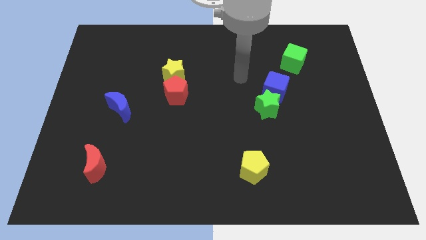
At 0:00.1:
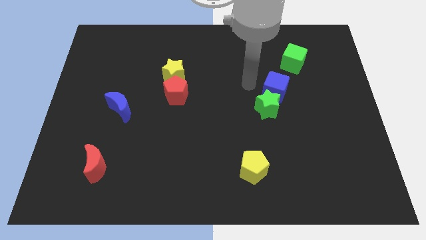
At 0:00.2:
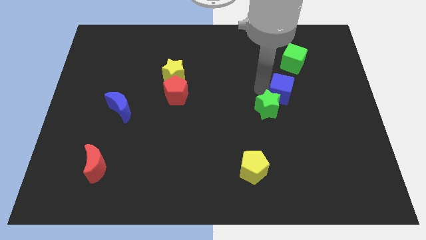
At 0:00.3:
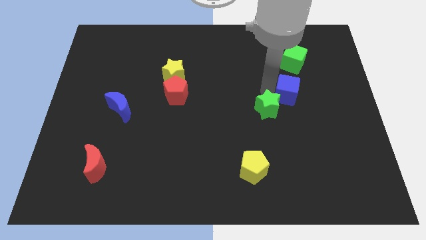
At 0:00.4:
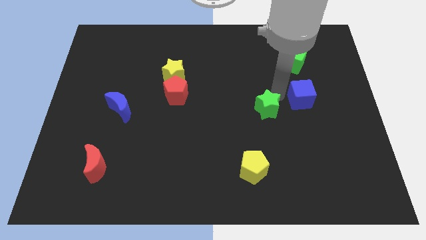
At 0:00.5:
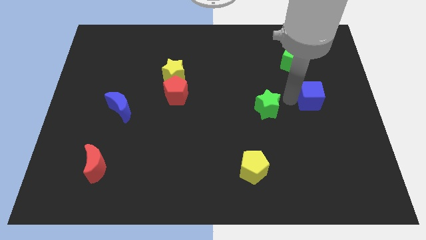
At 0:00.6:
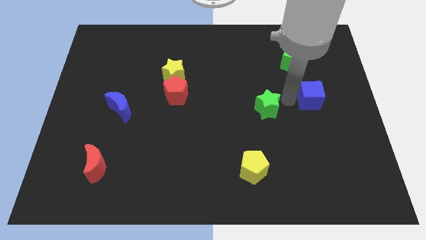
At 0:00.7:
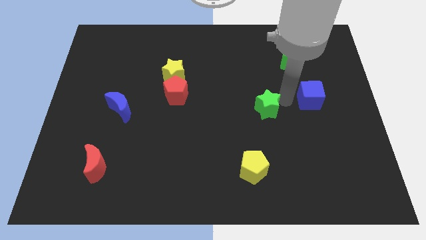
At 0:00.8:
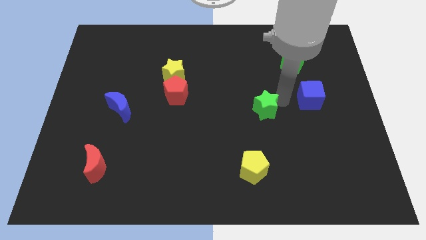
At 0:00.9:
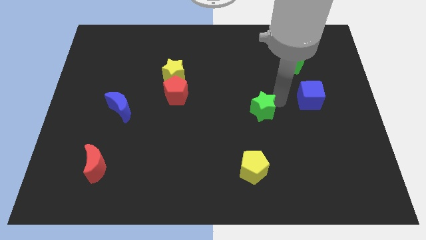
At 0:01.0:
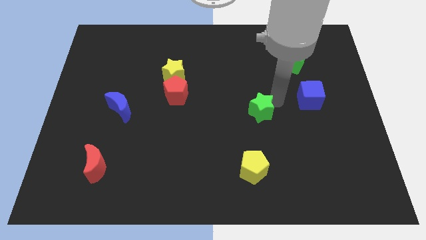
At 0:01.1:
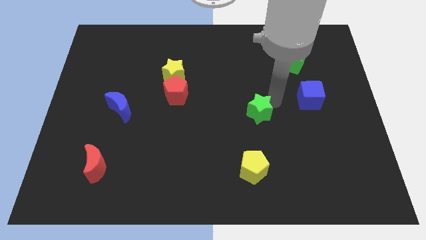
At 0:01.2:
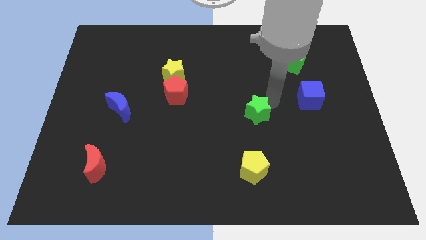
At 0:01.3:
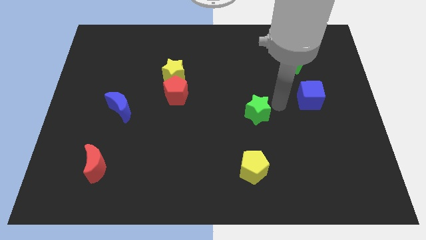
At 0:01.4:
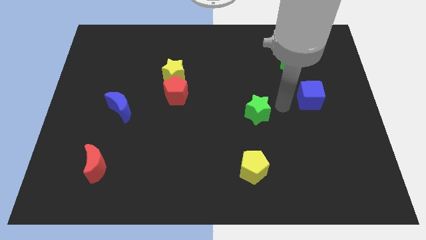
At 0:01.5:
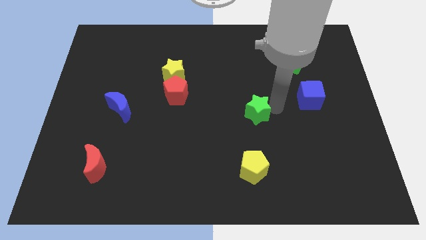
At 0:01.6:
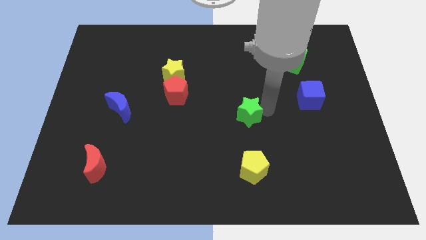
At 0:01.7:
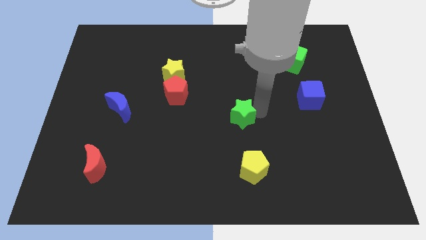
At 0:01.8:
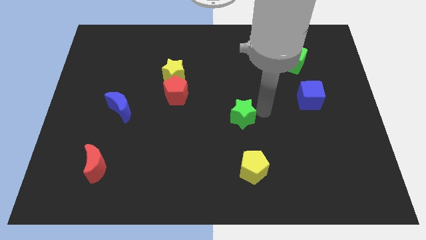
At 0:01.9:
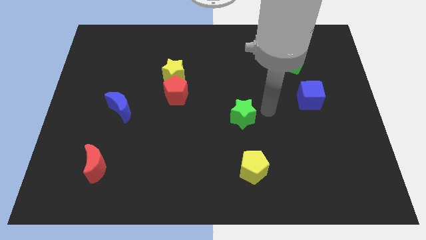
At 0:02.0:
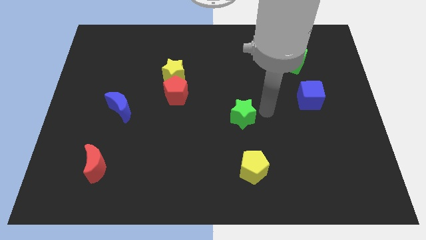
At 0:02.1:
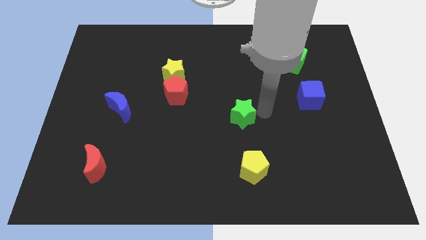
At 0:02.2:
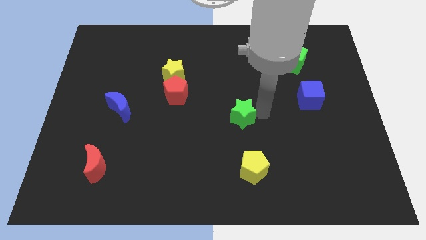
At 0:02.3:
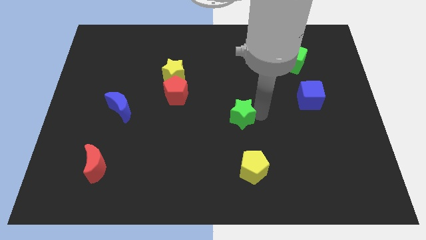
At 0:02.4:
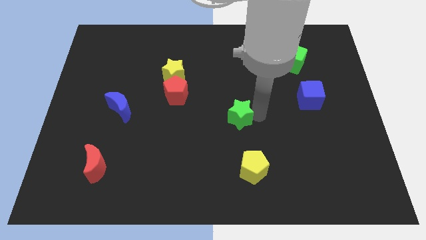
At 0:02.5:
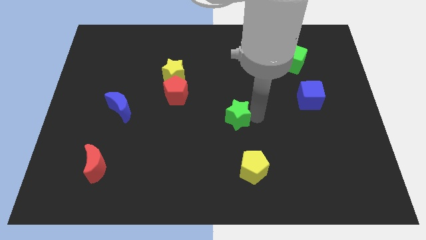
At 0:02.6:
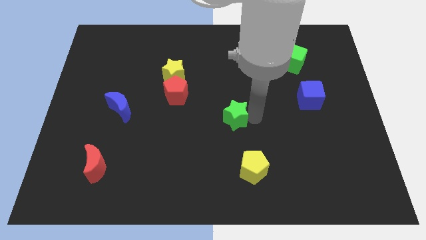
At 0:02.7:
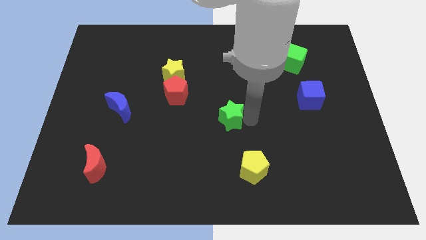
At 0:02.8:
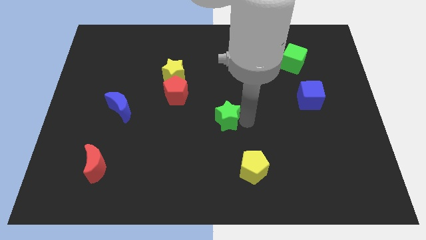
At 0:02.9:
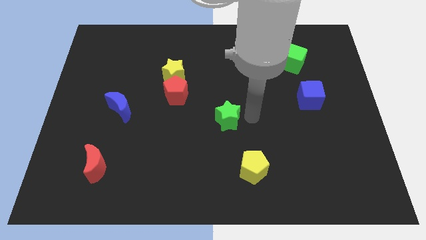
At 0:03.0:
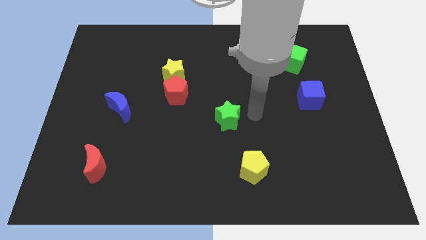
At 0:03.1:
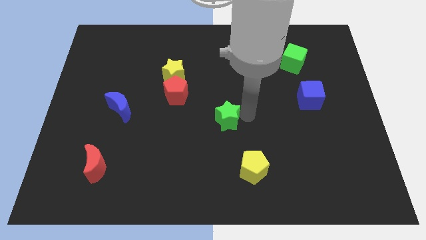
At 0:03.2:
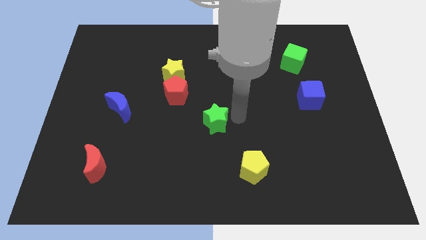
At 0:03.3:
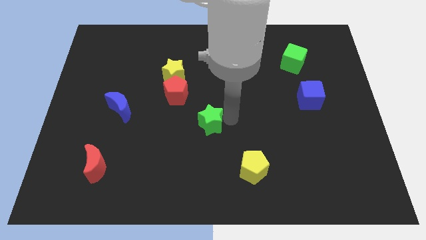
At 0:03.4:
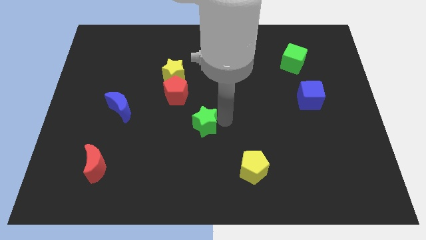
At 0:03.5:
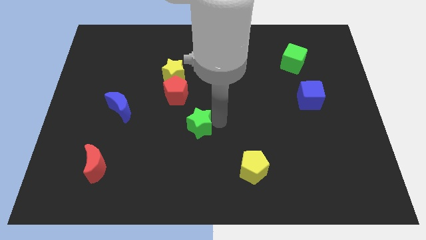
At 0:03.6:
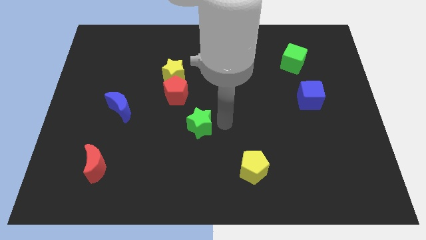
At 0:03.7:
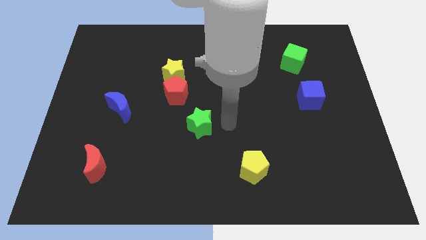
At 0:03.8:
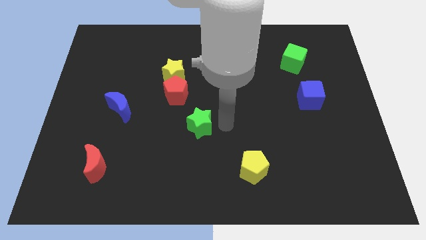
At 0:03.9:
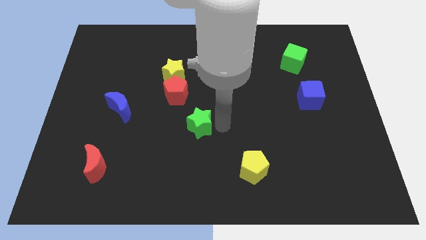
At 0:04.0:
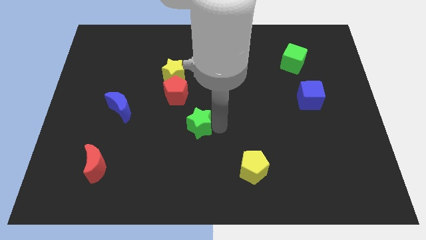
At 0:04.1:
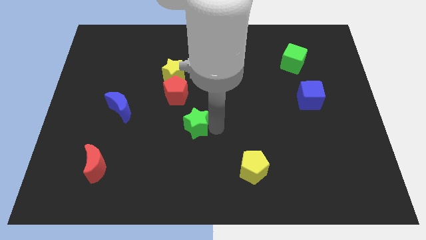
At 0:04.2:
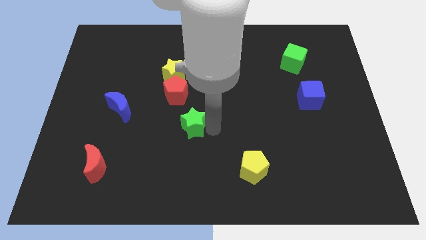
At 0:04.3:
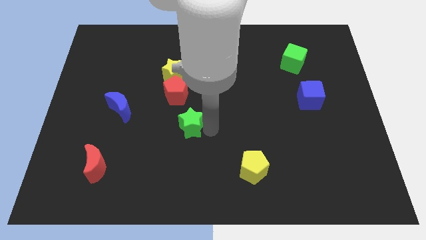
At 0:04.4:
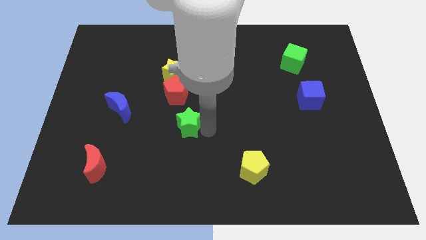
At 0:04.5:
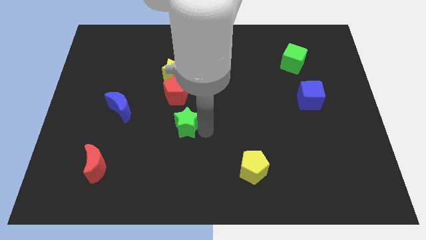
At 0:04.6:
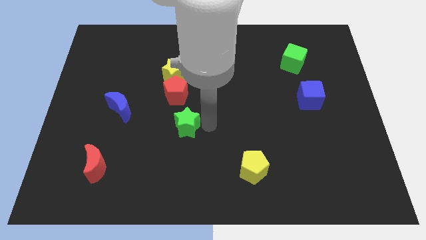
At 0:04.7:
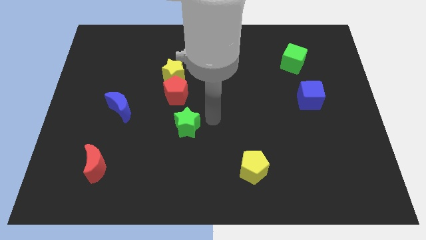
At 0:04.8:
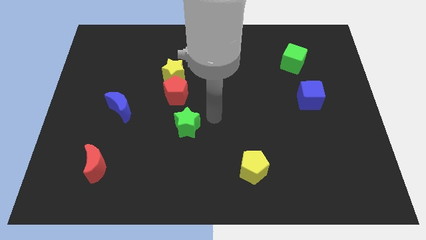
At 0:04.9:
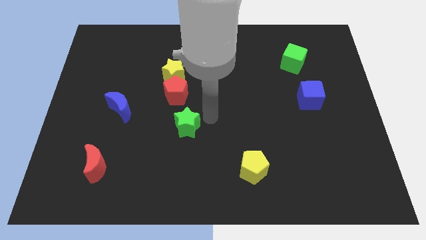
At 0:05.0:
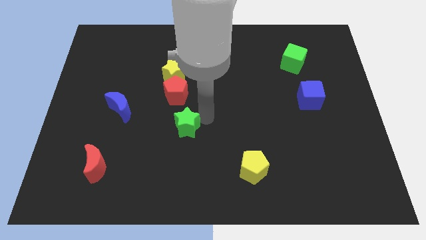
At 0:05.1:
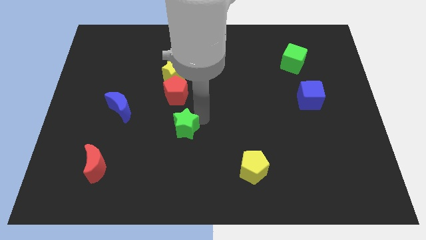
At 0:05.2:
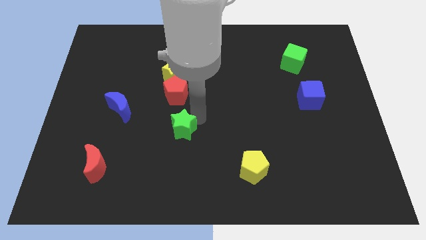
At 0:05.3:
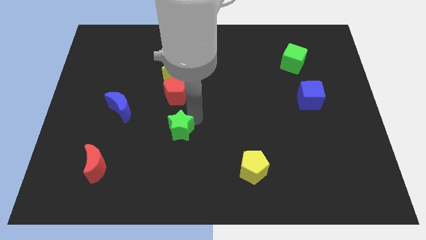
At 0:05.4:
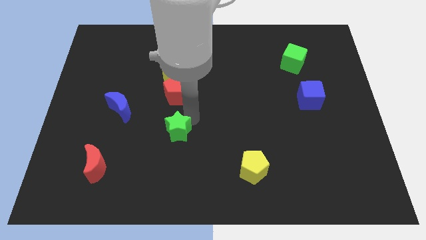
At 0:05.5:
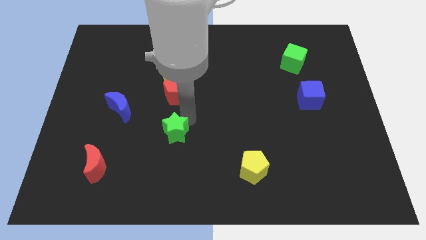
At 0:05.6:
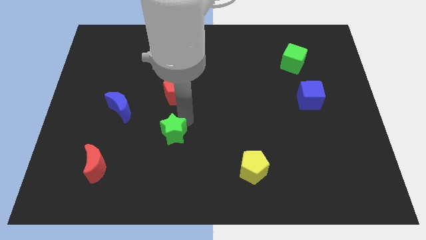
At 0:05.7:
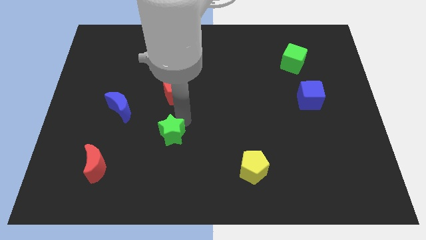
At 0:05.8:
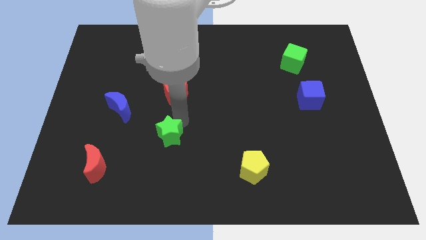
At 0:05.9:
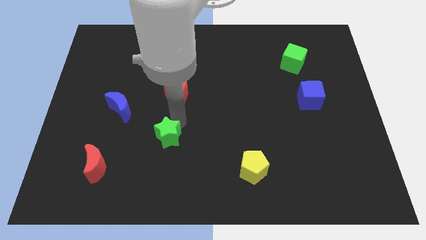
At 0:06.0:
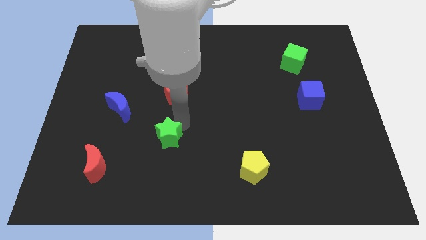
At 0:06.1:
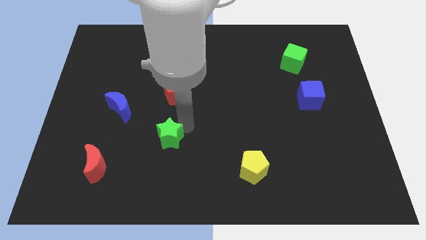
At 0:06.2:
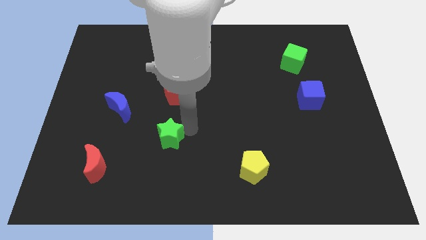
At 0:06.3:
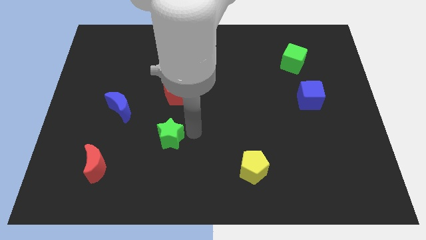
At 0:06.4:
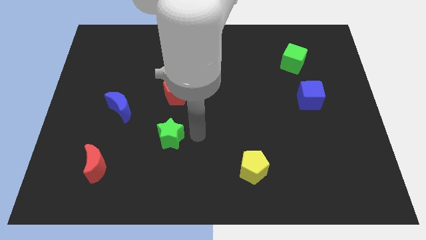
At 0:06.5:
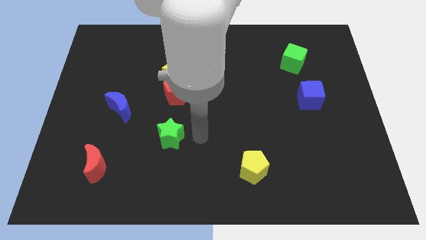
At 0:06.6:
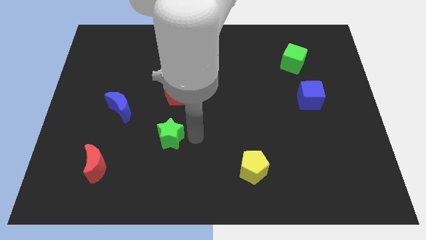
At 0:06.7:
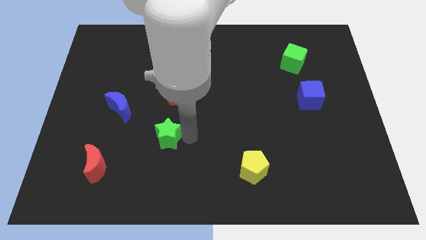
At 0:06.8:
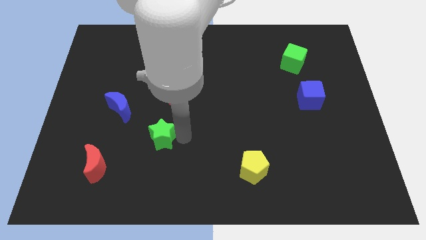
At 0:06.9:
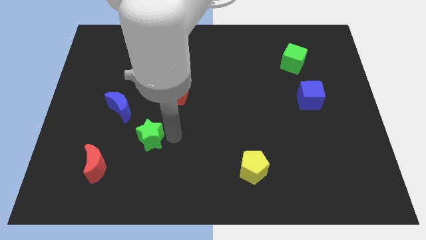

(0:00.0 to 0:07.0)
move the green star to the top right of the red moon

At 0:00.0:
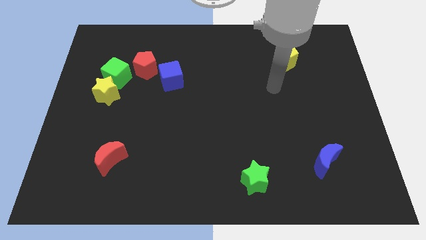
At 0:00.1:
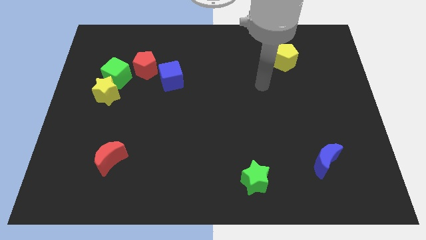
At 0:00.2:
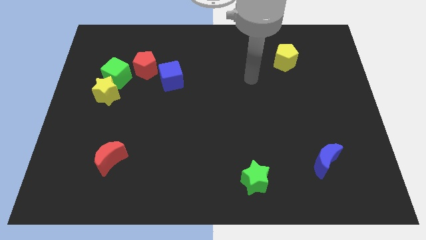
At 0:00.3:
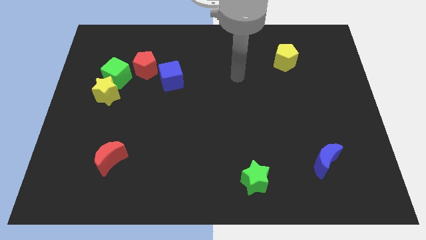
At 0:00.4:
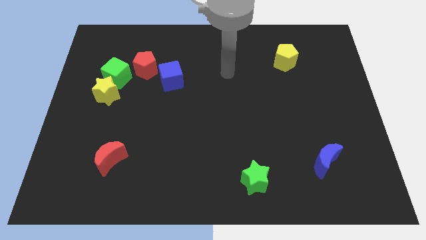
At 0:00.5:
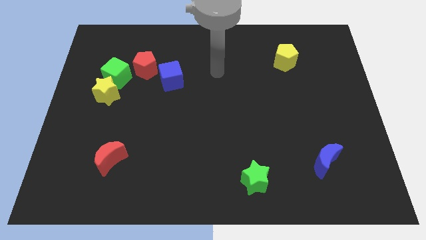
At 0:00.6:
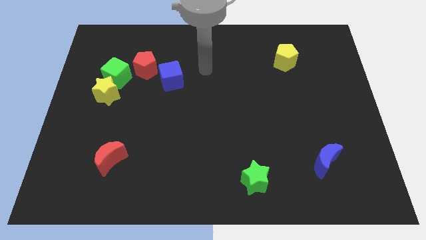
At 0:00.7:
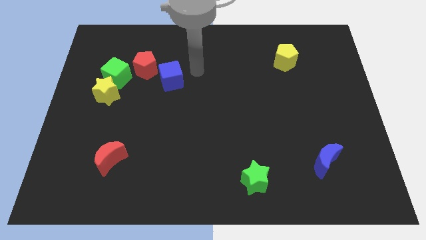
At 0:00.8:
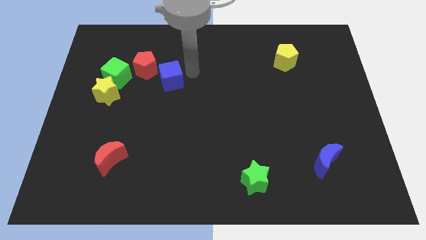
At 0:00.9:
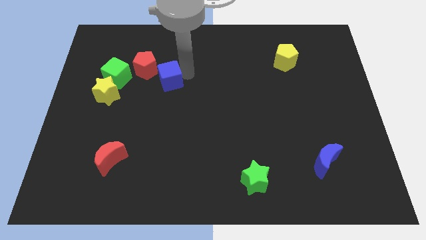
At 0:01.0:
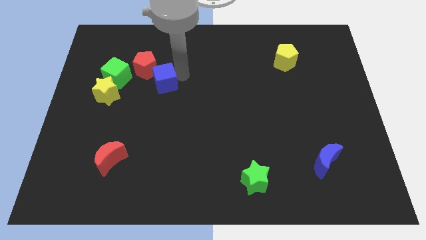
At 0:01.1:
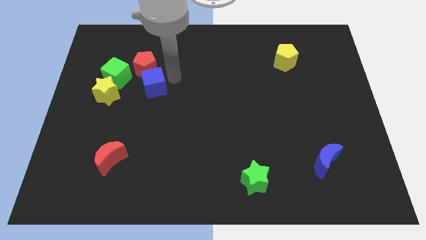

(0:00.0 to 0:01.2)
move the blue cube diagonally down and to the right of the green cube
